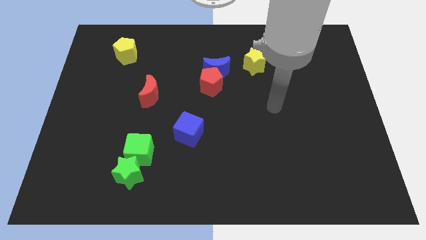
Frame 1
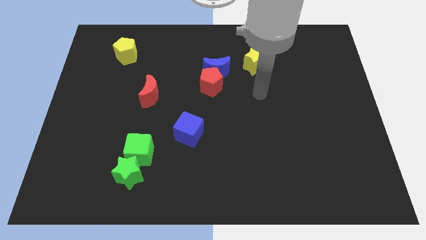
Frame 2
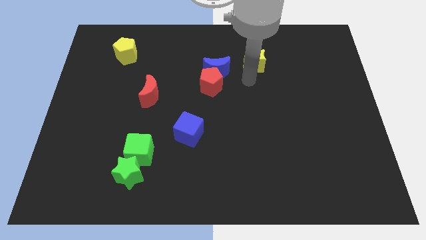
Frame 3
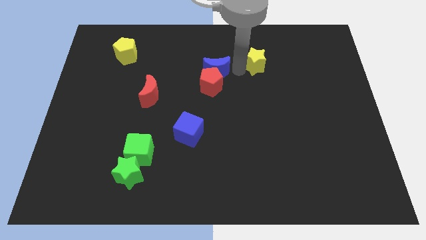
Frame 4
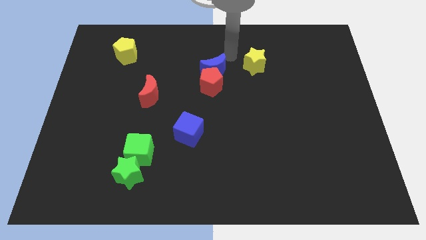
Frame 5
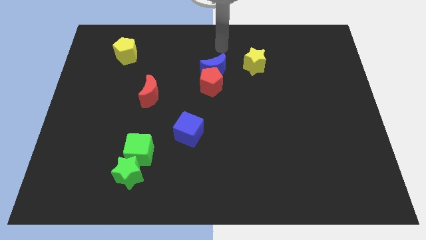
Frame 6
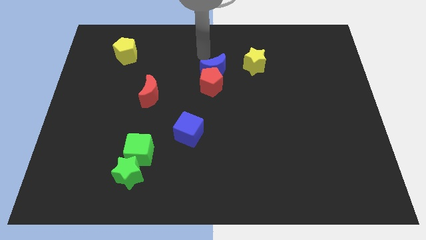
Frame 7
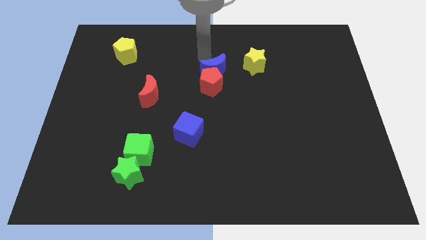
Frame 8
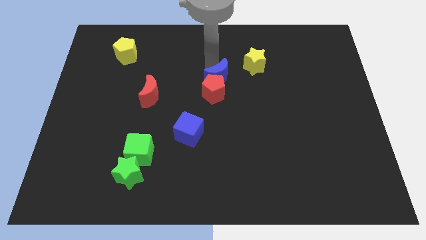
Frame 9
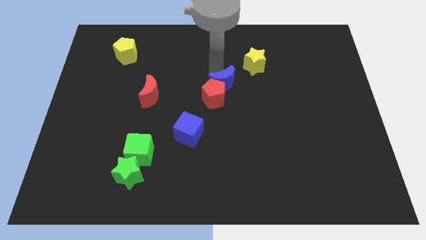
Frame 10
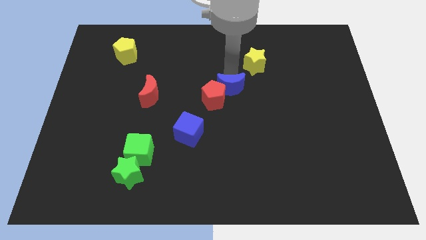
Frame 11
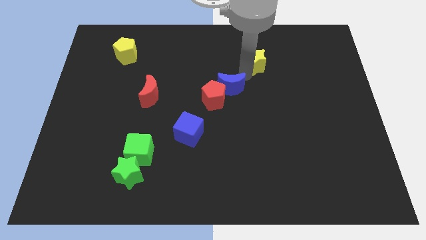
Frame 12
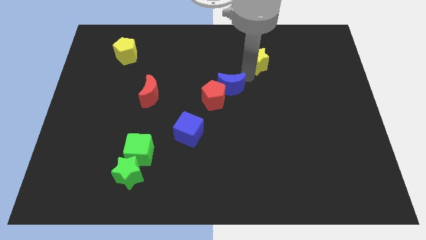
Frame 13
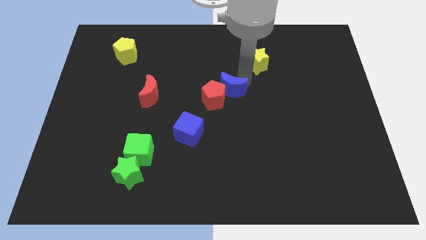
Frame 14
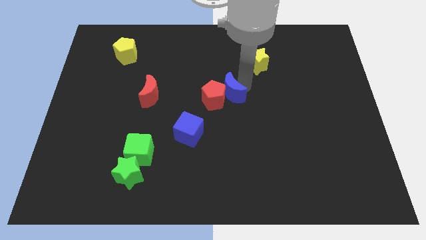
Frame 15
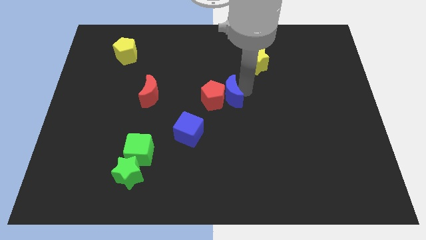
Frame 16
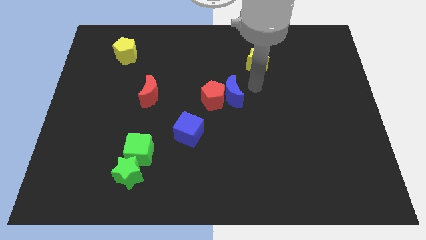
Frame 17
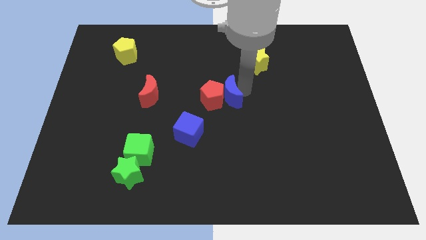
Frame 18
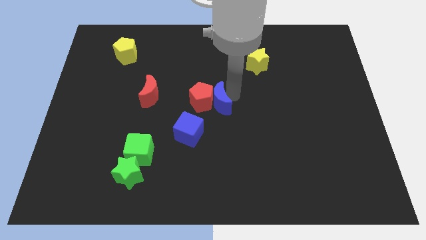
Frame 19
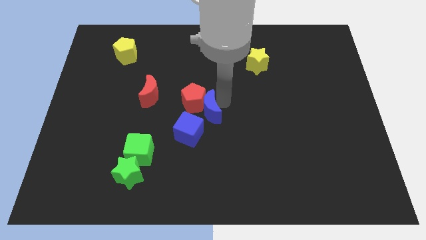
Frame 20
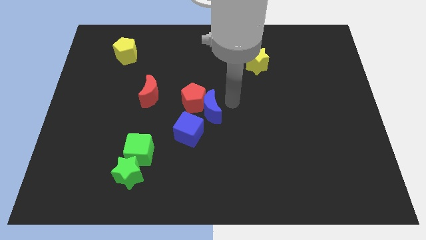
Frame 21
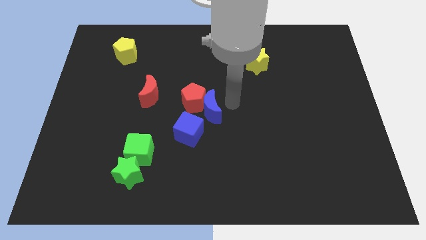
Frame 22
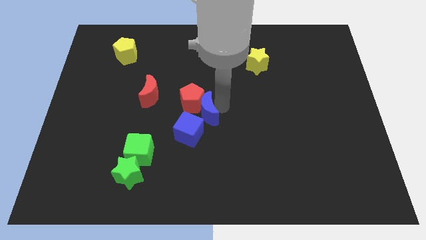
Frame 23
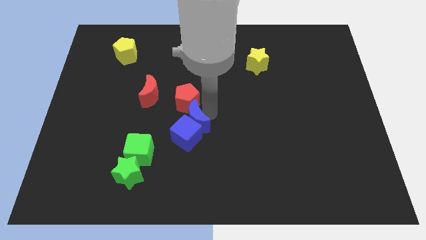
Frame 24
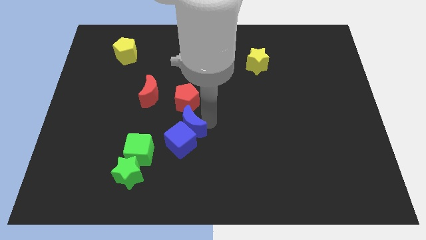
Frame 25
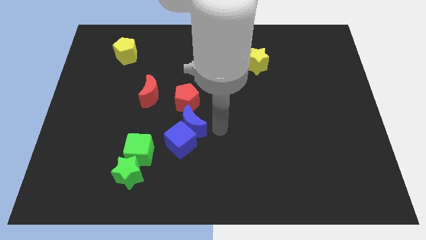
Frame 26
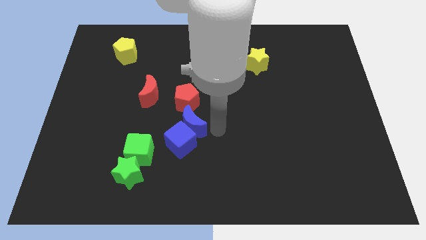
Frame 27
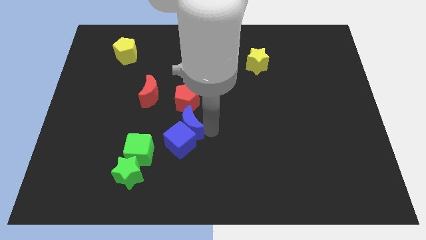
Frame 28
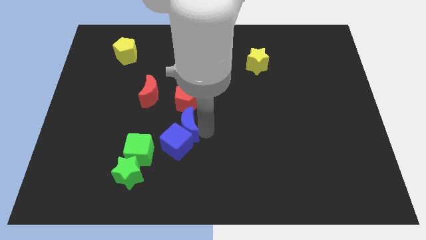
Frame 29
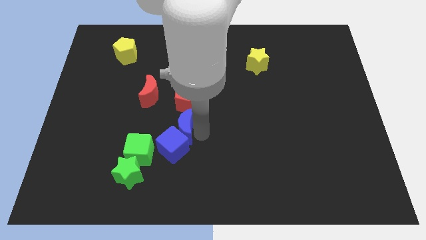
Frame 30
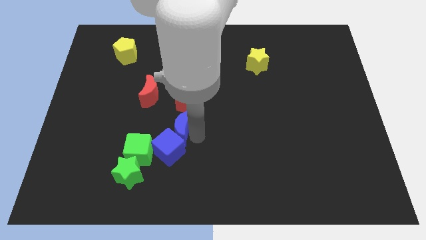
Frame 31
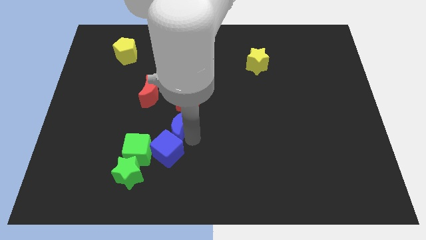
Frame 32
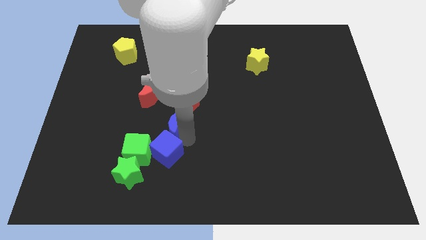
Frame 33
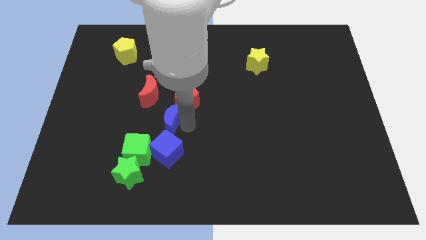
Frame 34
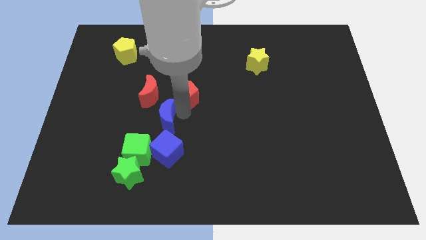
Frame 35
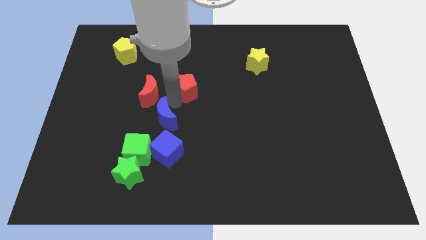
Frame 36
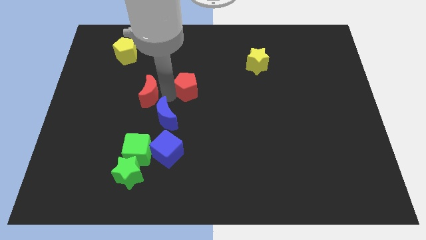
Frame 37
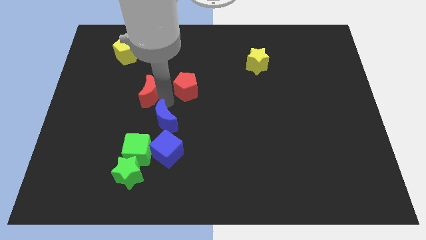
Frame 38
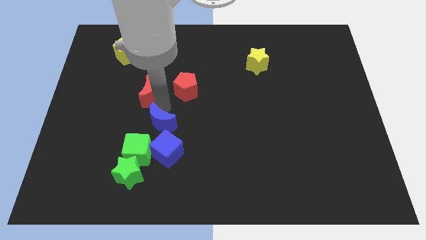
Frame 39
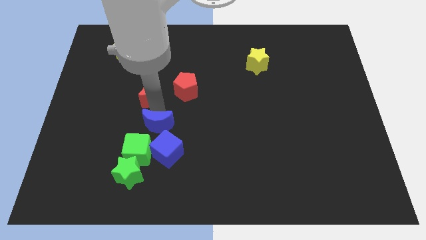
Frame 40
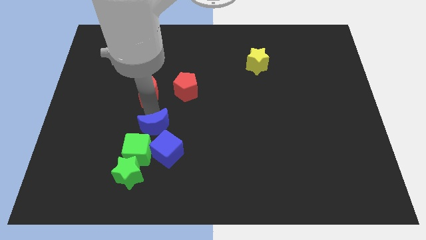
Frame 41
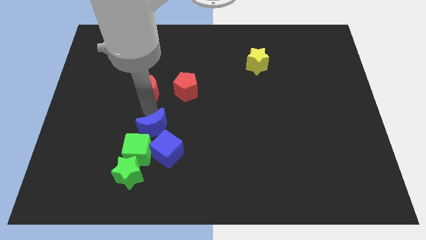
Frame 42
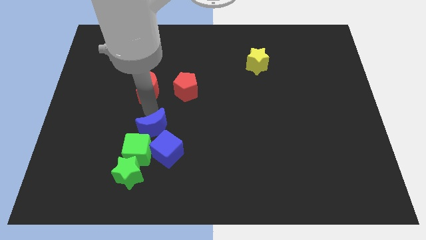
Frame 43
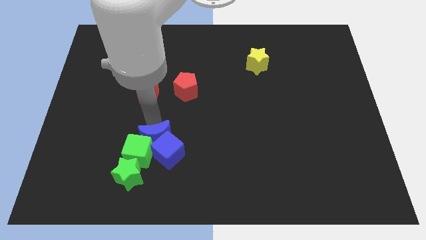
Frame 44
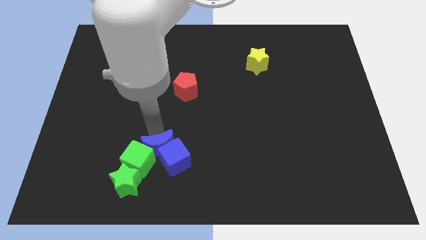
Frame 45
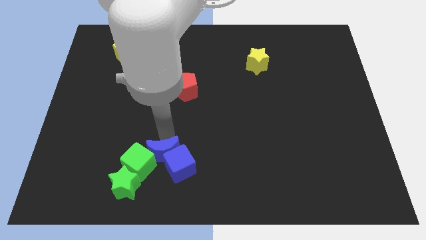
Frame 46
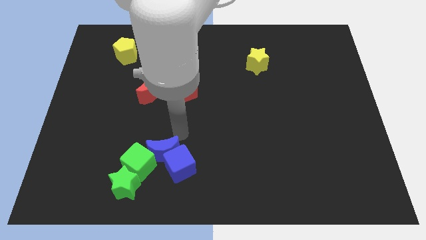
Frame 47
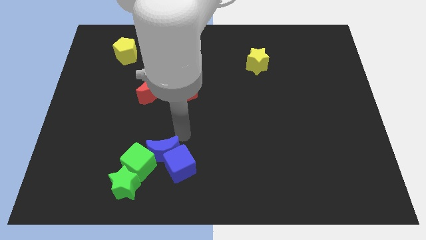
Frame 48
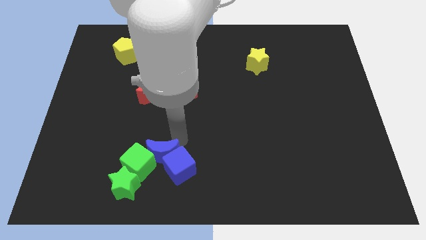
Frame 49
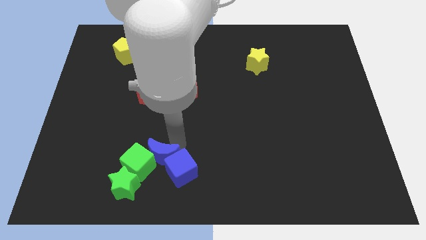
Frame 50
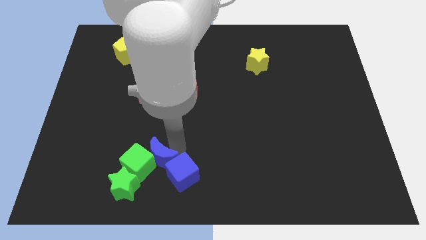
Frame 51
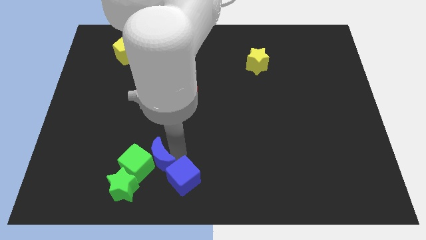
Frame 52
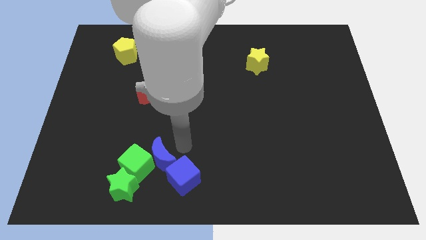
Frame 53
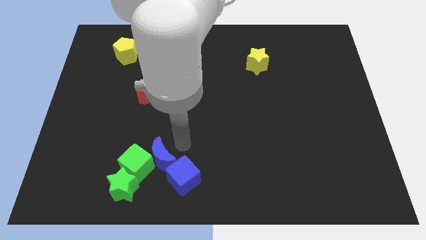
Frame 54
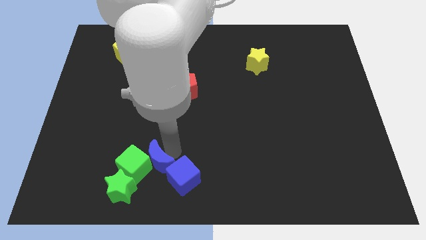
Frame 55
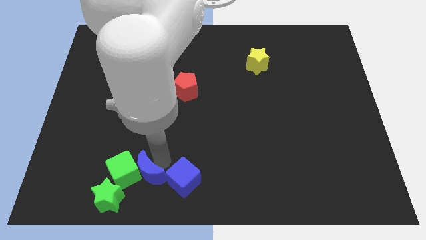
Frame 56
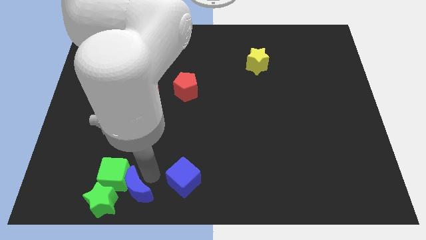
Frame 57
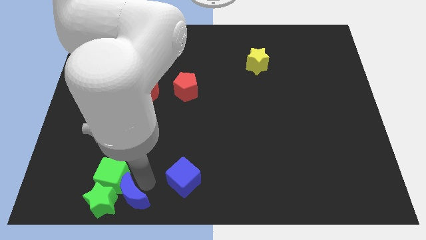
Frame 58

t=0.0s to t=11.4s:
move the blue moon next to the green star

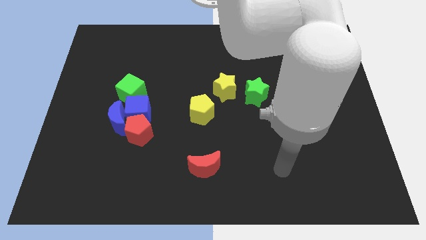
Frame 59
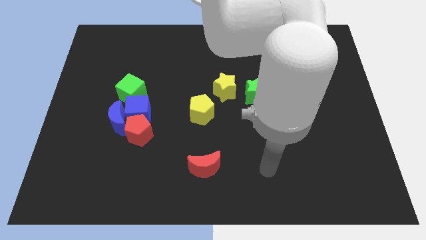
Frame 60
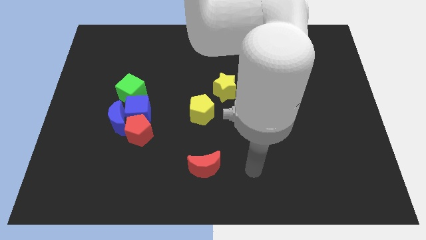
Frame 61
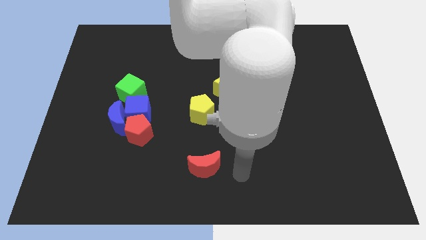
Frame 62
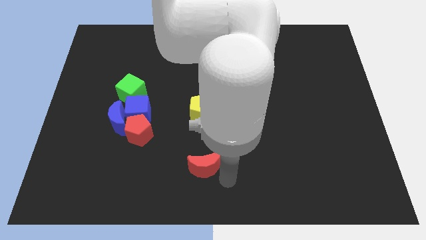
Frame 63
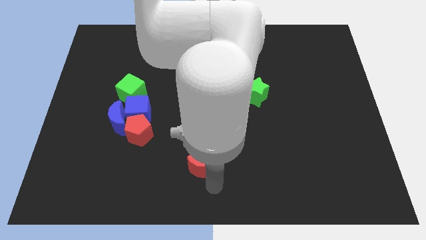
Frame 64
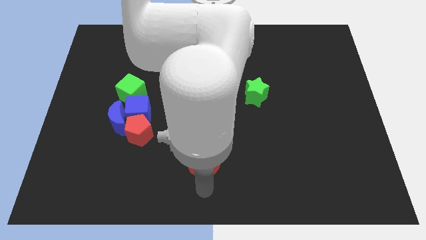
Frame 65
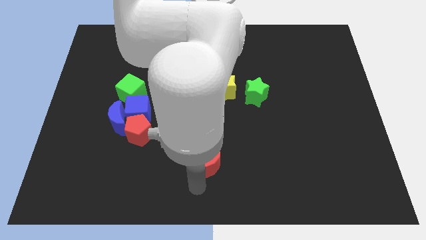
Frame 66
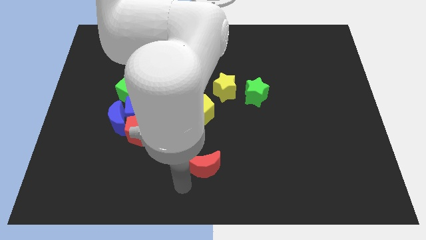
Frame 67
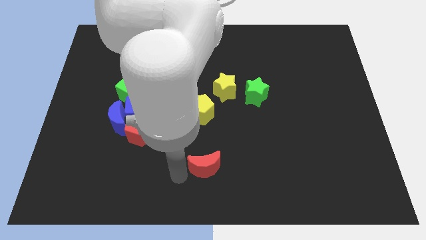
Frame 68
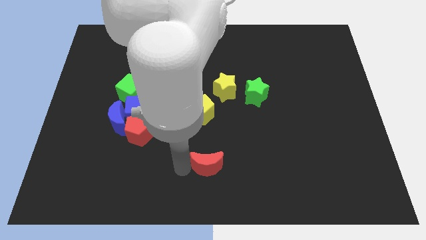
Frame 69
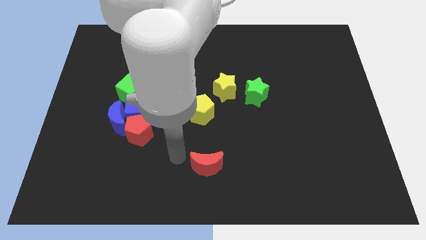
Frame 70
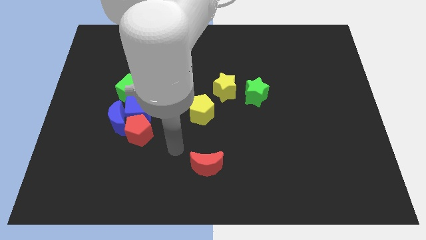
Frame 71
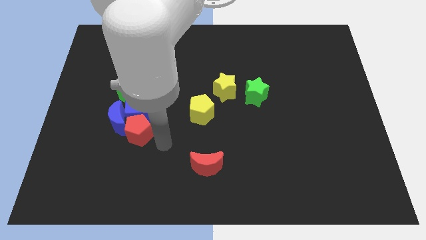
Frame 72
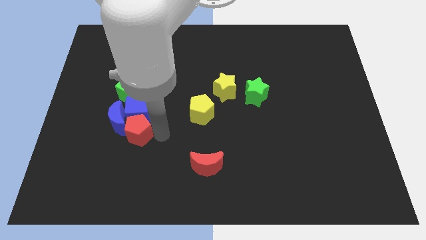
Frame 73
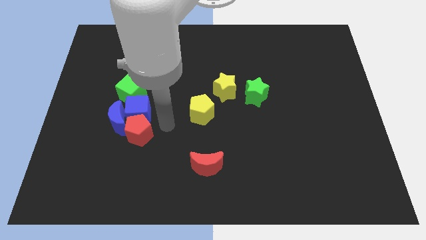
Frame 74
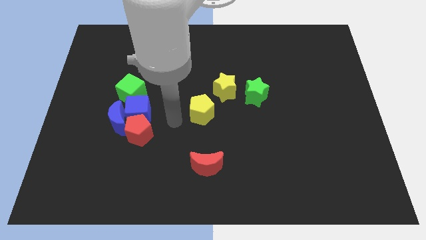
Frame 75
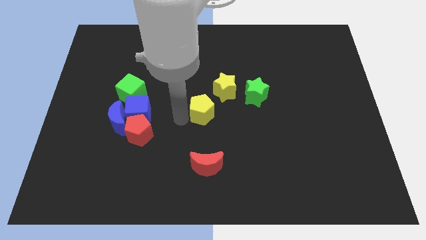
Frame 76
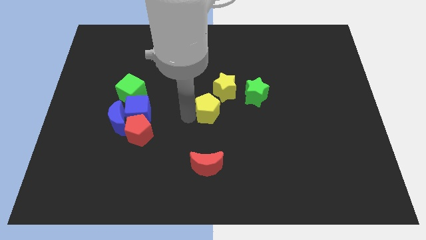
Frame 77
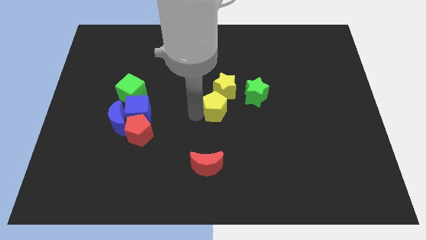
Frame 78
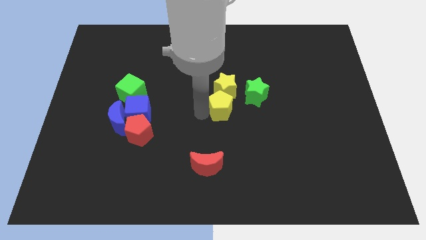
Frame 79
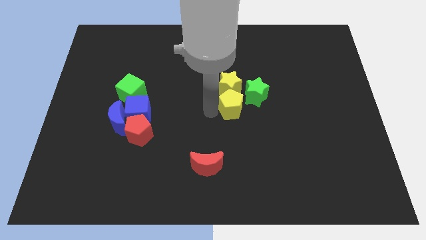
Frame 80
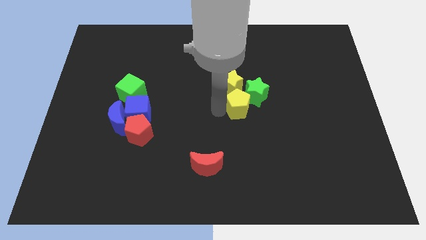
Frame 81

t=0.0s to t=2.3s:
put the yellow pentagon close to the green star
